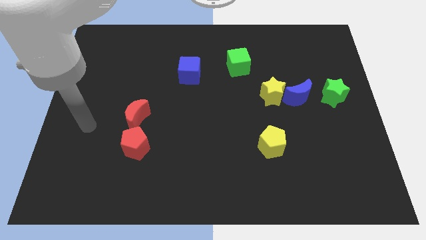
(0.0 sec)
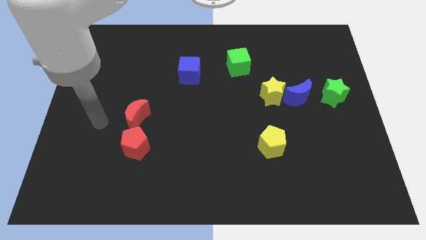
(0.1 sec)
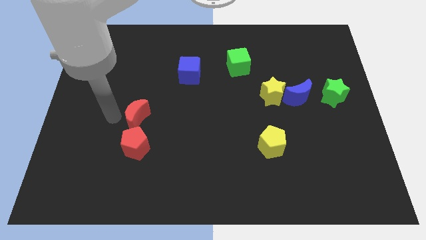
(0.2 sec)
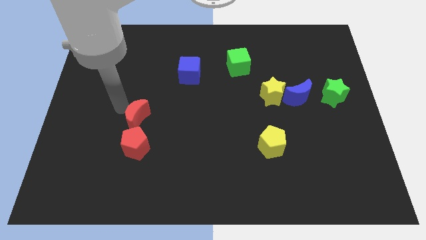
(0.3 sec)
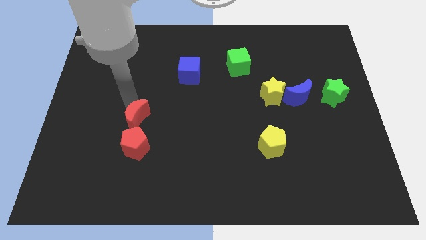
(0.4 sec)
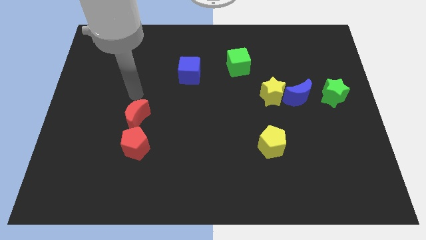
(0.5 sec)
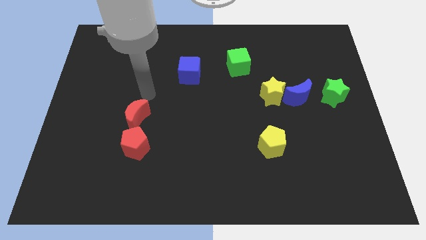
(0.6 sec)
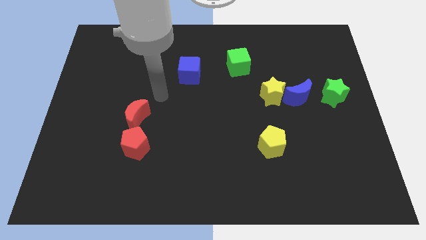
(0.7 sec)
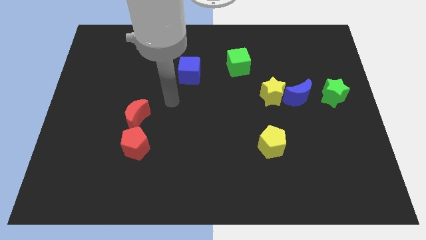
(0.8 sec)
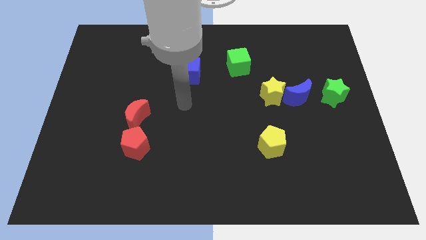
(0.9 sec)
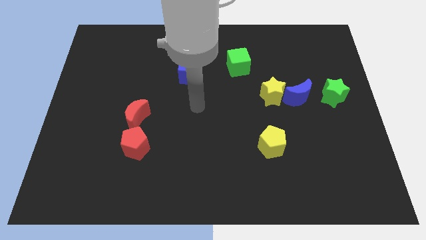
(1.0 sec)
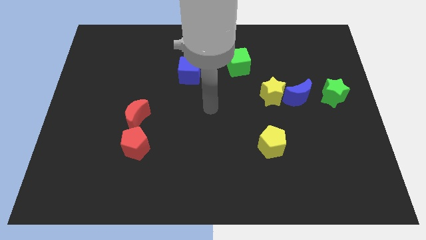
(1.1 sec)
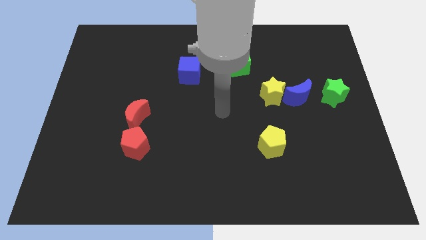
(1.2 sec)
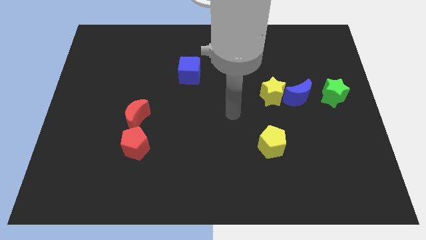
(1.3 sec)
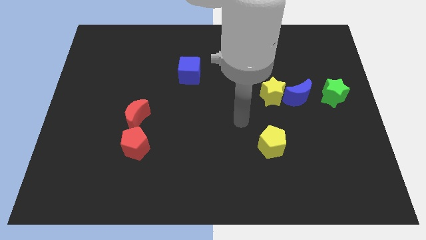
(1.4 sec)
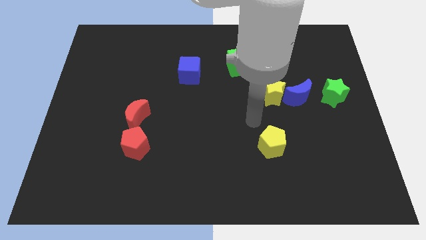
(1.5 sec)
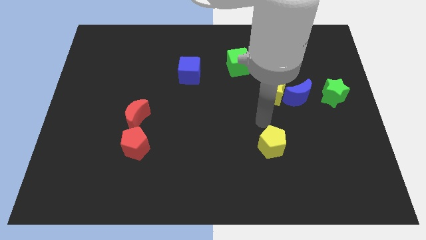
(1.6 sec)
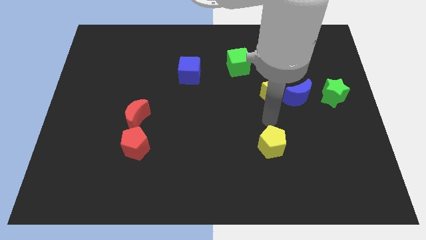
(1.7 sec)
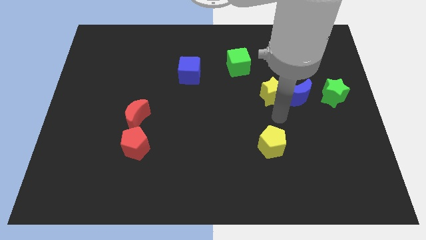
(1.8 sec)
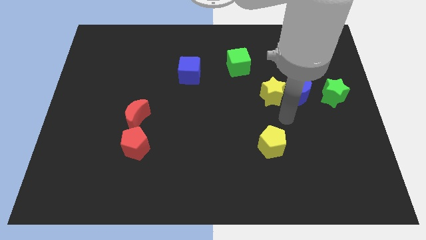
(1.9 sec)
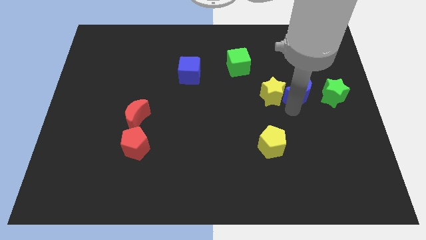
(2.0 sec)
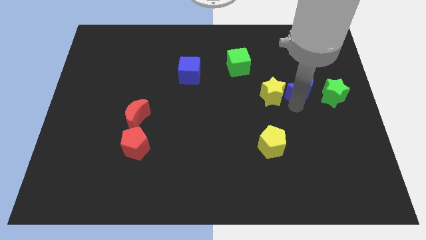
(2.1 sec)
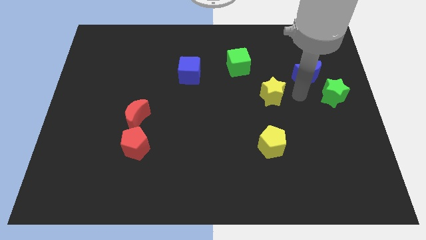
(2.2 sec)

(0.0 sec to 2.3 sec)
pull the yellow star apart from the blue moon

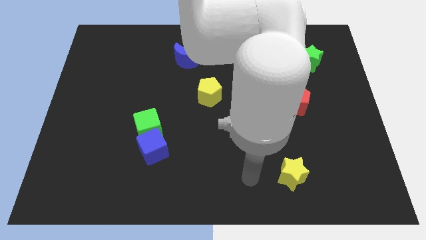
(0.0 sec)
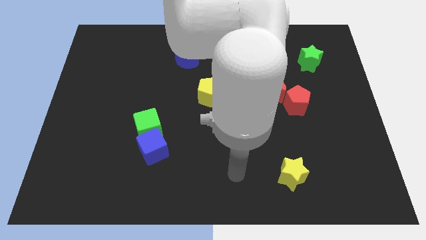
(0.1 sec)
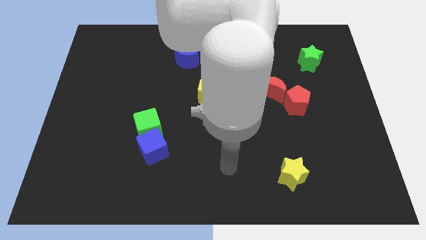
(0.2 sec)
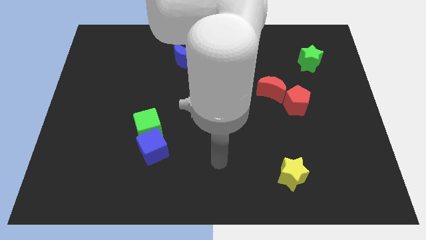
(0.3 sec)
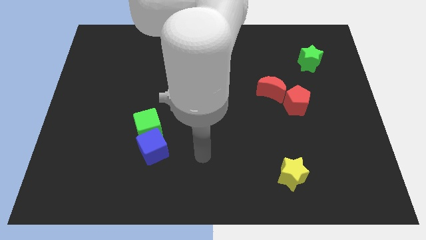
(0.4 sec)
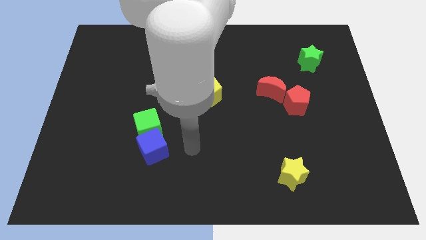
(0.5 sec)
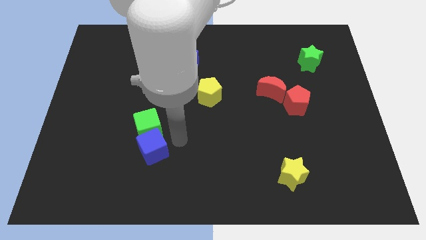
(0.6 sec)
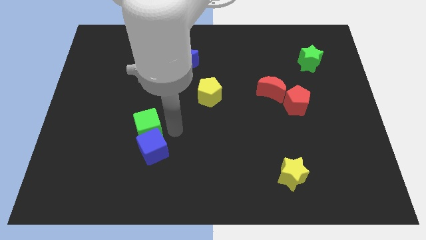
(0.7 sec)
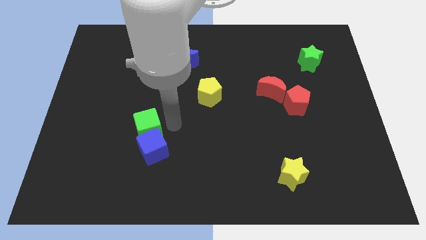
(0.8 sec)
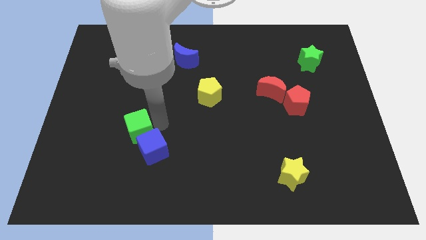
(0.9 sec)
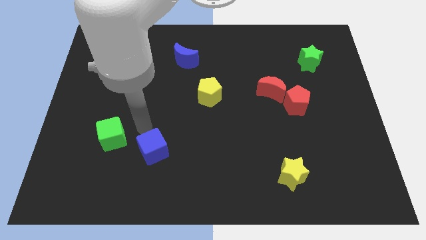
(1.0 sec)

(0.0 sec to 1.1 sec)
move the blue cube away from the green cube

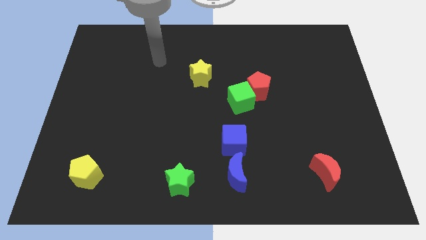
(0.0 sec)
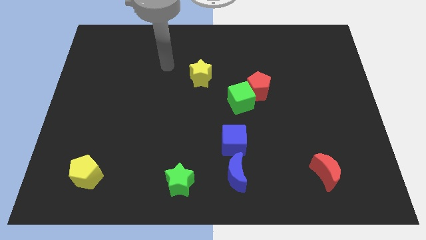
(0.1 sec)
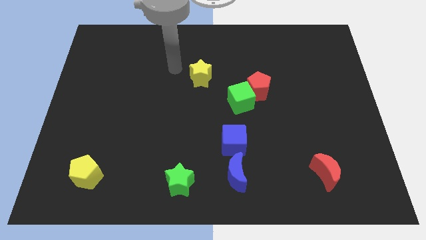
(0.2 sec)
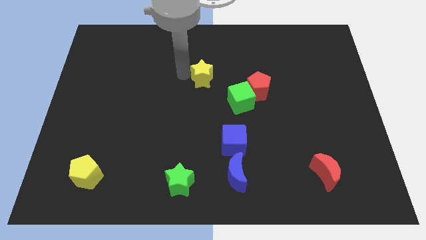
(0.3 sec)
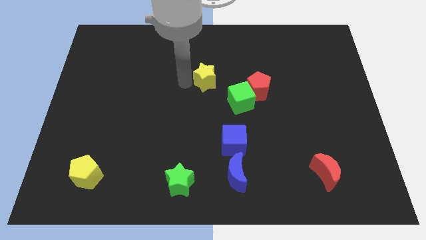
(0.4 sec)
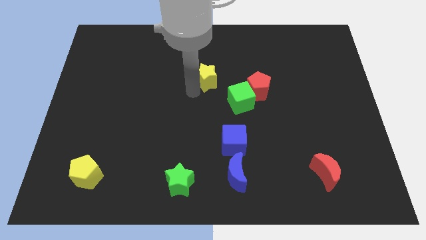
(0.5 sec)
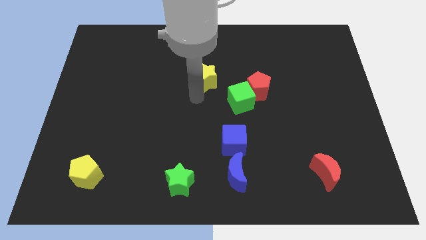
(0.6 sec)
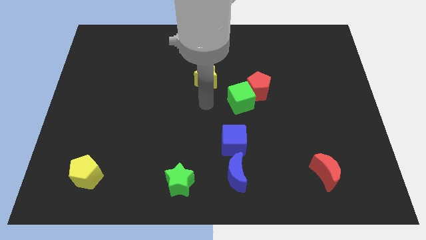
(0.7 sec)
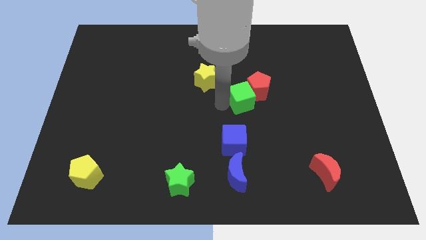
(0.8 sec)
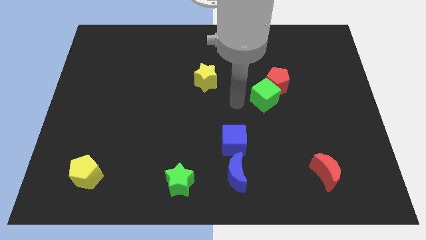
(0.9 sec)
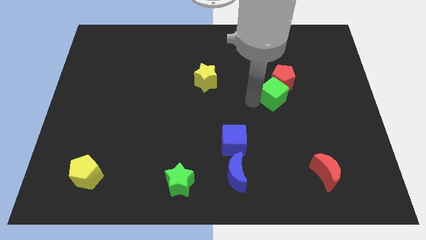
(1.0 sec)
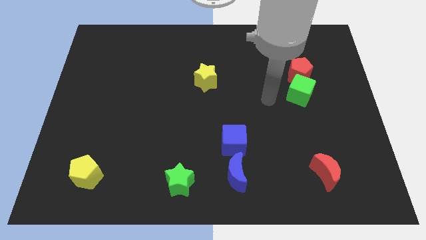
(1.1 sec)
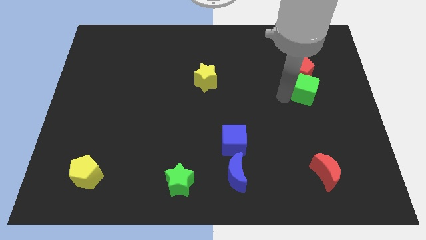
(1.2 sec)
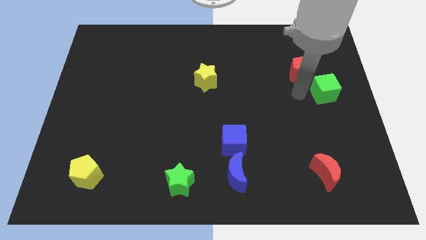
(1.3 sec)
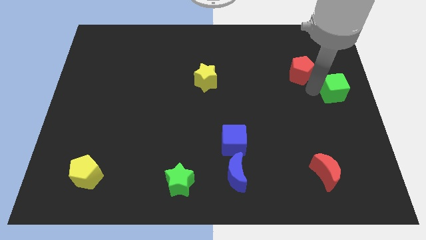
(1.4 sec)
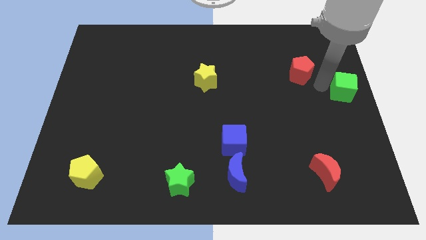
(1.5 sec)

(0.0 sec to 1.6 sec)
pull the red pentagon apart from the green cube

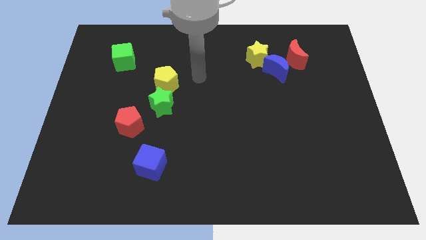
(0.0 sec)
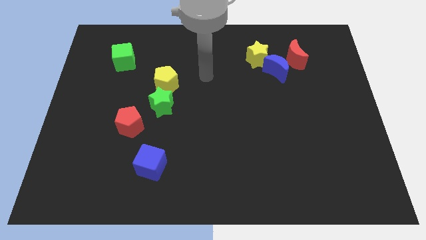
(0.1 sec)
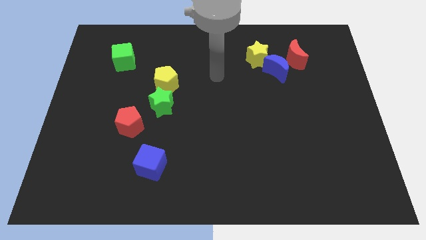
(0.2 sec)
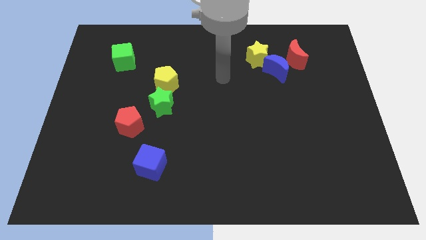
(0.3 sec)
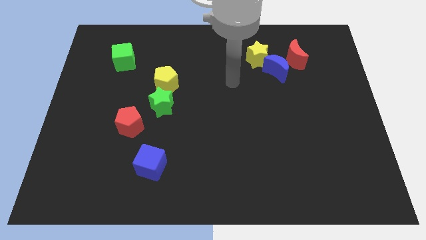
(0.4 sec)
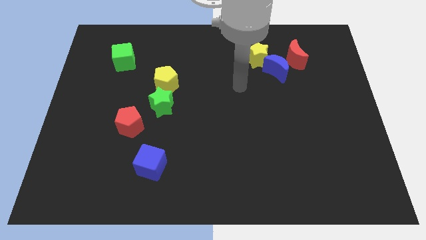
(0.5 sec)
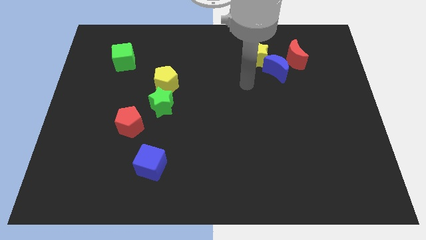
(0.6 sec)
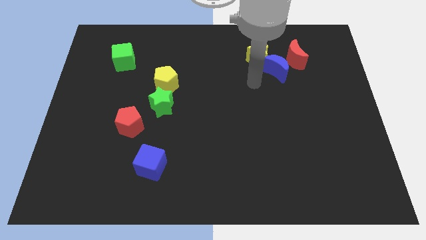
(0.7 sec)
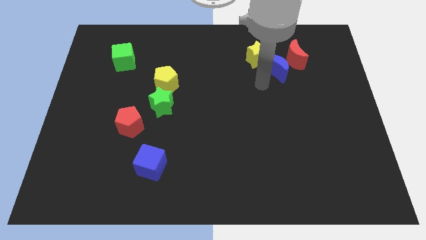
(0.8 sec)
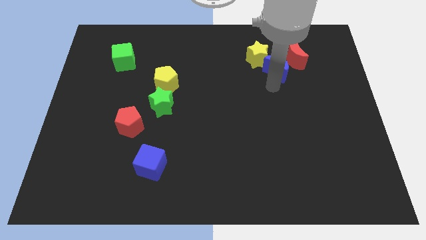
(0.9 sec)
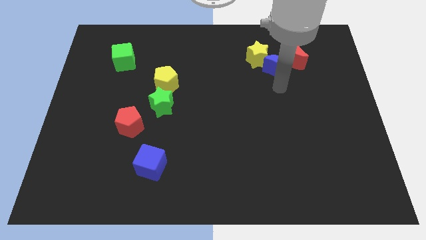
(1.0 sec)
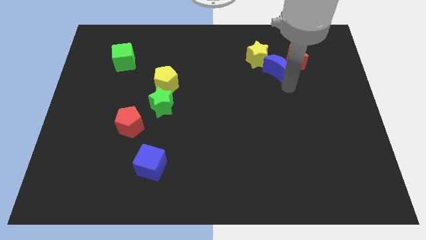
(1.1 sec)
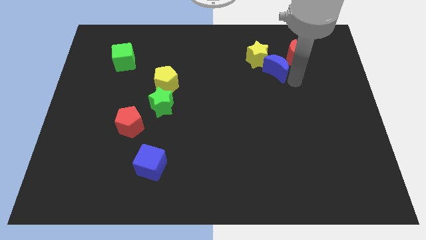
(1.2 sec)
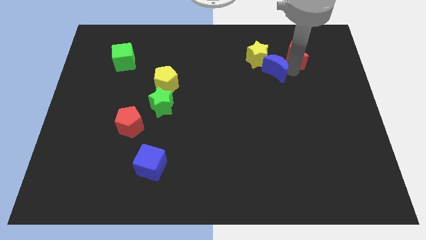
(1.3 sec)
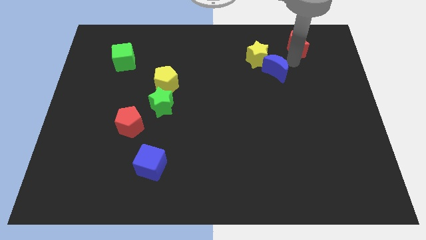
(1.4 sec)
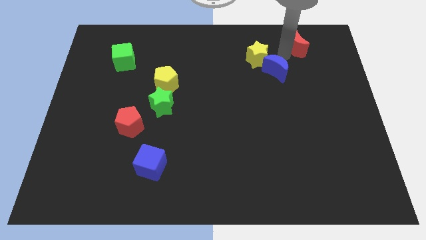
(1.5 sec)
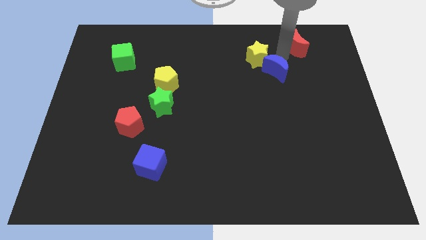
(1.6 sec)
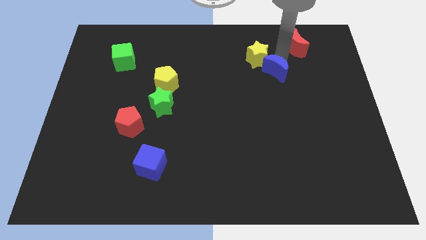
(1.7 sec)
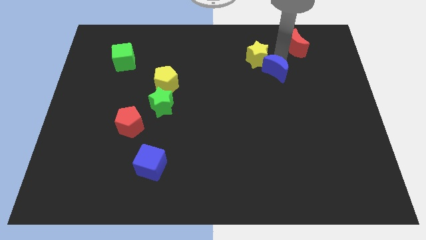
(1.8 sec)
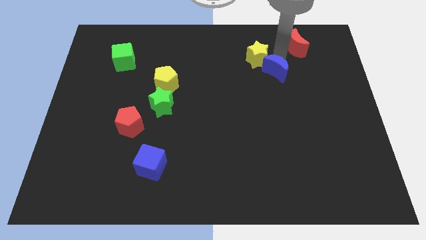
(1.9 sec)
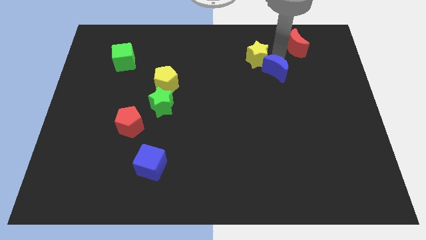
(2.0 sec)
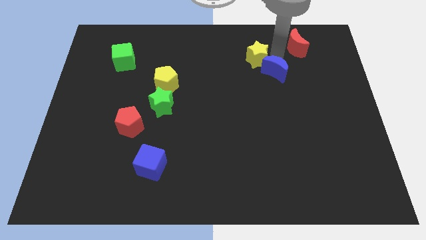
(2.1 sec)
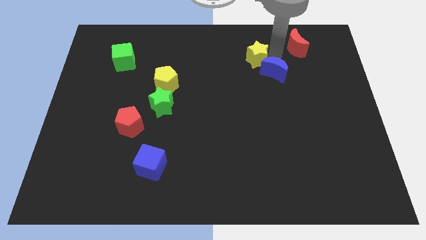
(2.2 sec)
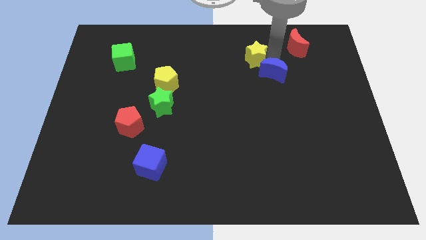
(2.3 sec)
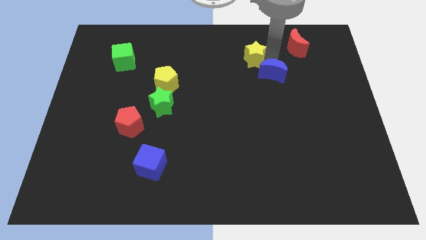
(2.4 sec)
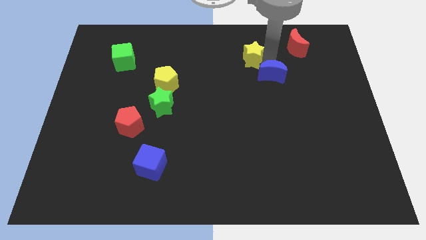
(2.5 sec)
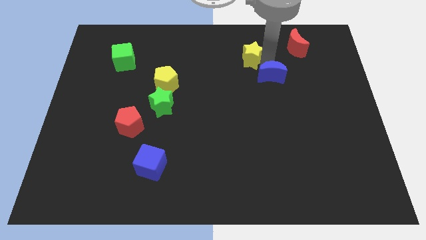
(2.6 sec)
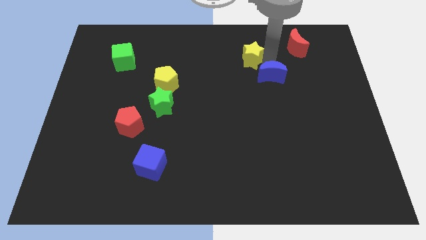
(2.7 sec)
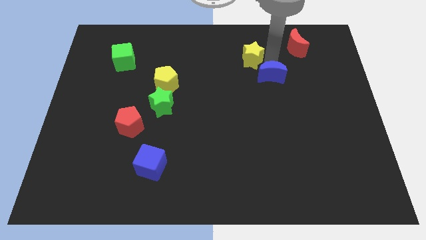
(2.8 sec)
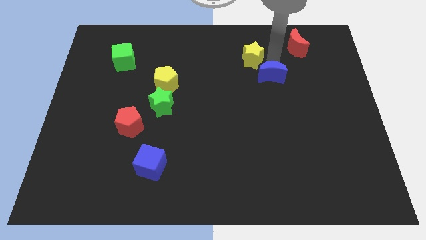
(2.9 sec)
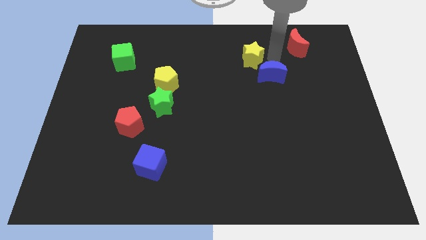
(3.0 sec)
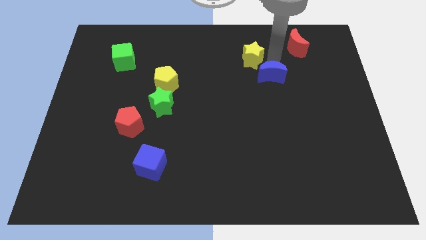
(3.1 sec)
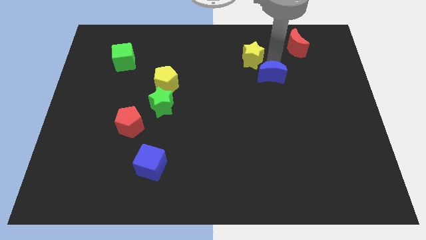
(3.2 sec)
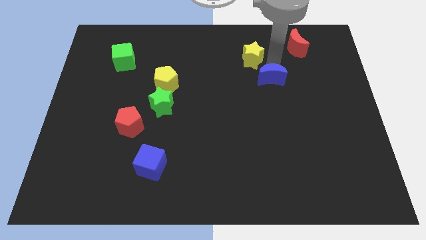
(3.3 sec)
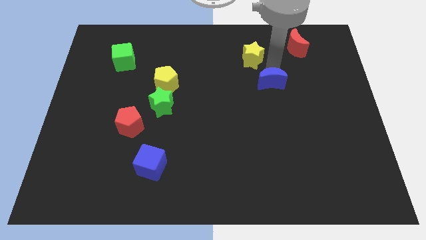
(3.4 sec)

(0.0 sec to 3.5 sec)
pull the blue moon apart from the yellow star and red moon

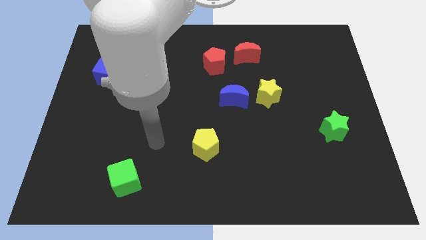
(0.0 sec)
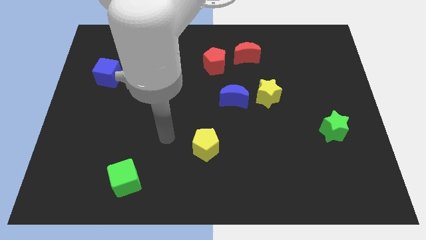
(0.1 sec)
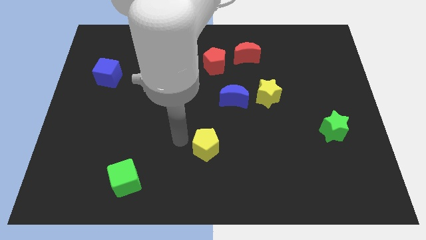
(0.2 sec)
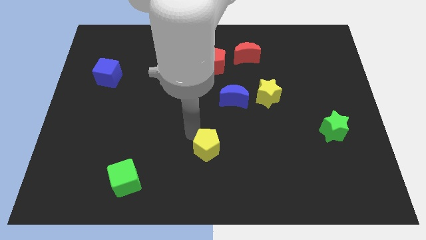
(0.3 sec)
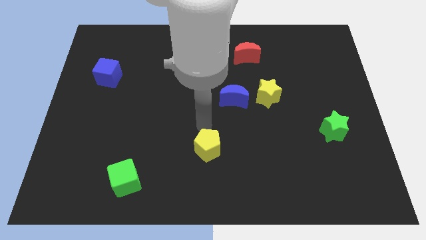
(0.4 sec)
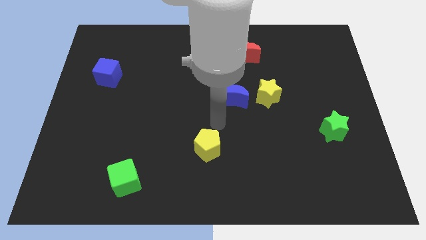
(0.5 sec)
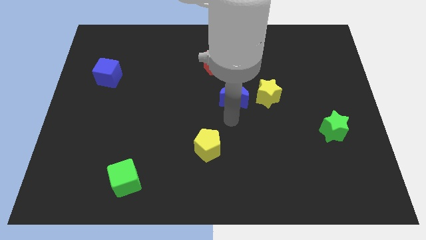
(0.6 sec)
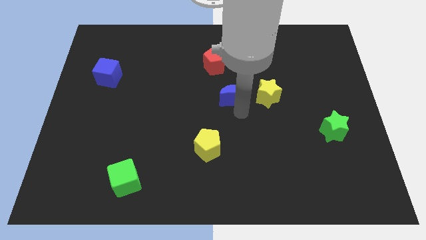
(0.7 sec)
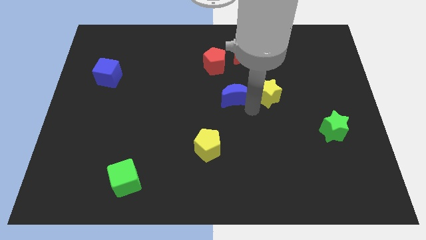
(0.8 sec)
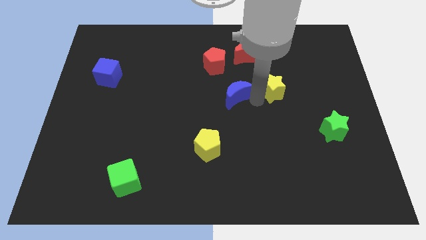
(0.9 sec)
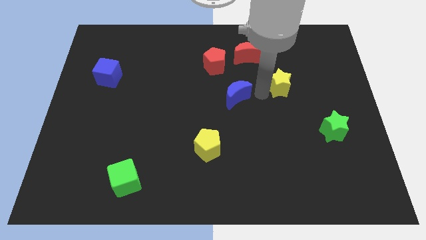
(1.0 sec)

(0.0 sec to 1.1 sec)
separate the blue moon from the yellow star
